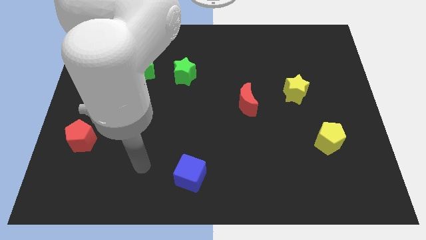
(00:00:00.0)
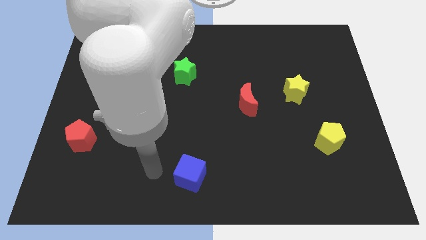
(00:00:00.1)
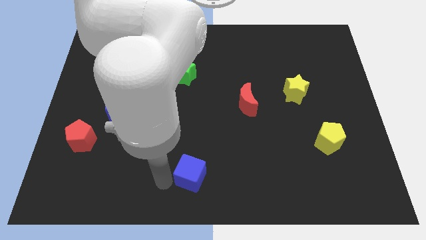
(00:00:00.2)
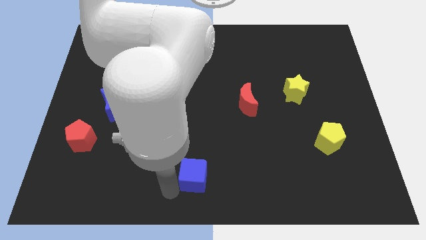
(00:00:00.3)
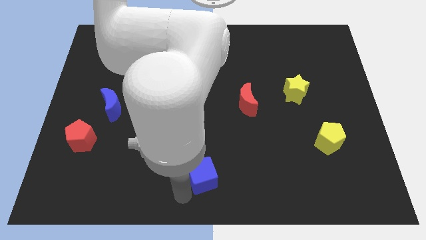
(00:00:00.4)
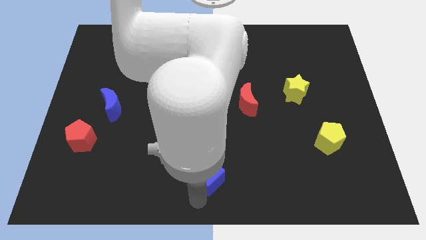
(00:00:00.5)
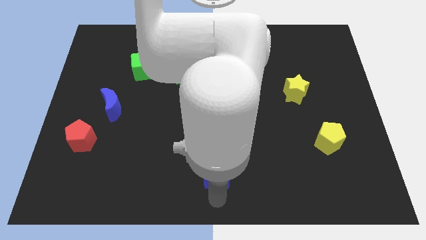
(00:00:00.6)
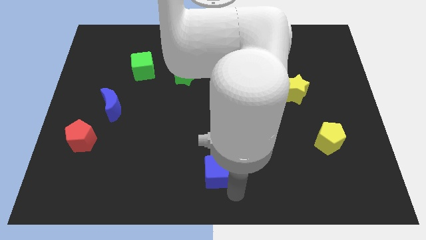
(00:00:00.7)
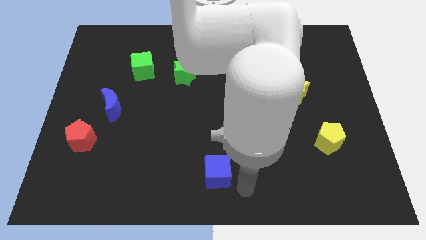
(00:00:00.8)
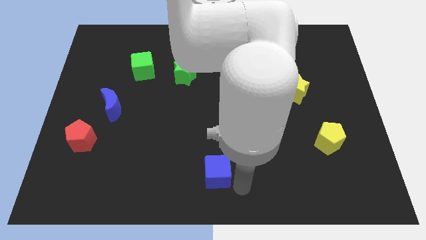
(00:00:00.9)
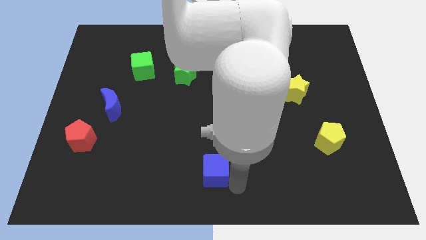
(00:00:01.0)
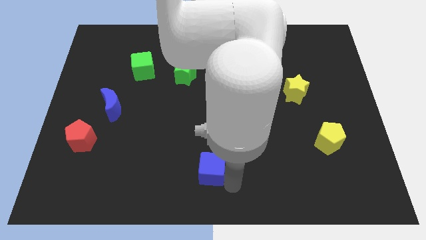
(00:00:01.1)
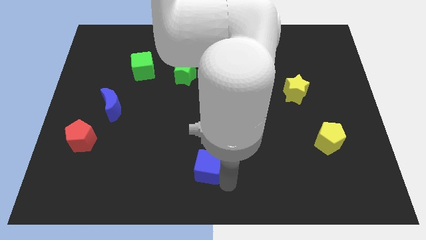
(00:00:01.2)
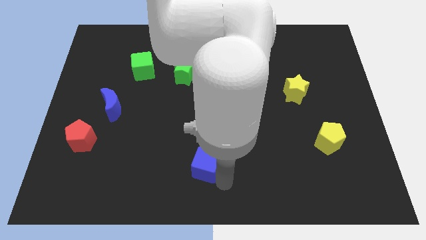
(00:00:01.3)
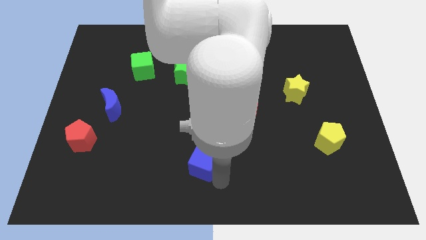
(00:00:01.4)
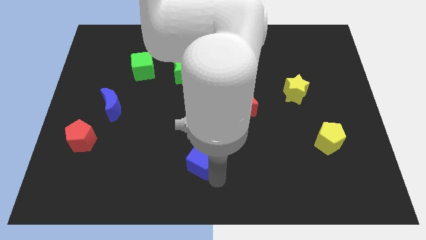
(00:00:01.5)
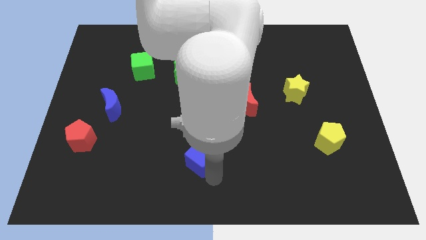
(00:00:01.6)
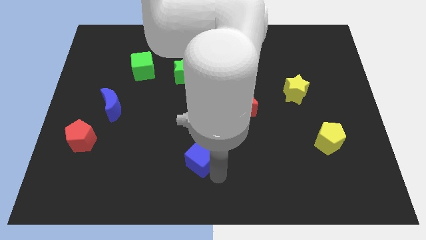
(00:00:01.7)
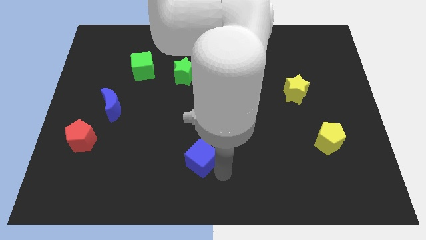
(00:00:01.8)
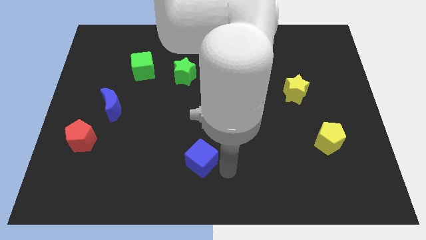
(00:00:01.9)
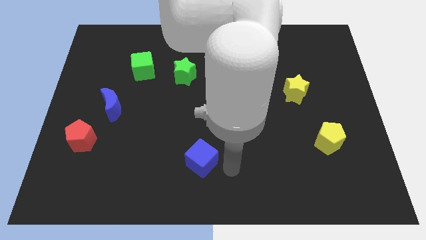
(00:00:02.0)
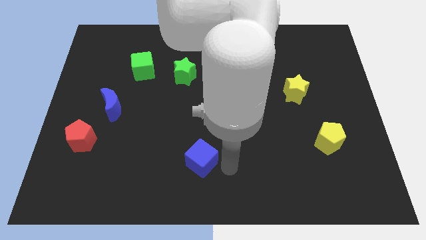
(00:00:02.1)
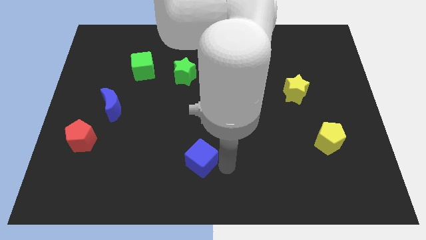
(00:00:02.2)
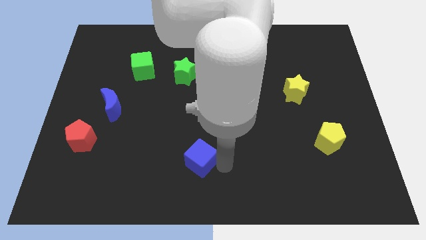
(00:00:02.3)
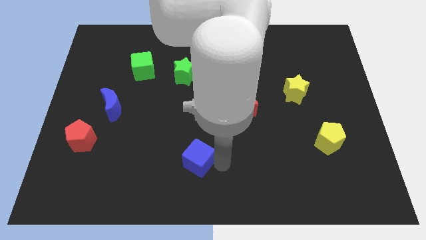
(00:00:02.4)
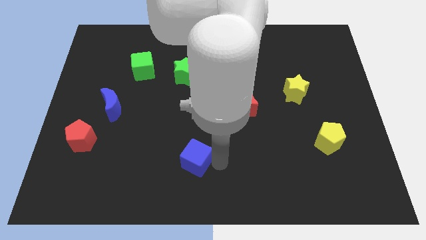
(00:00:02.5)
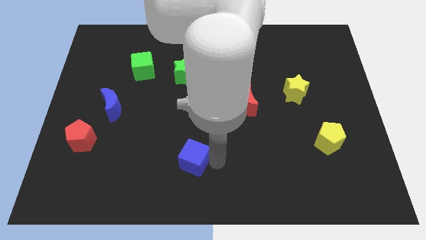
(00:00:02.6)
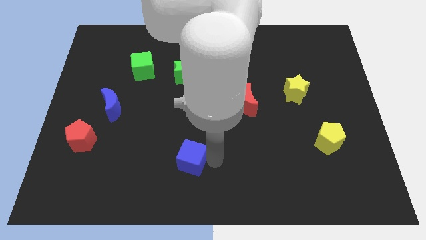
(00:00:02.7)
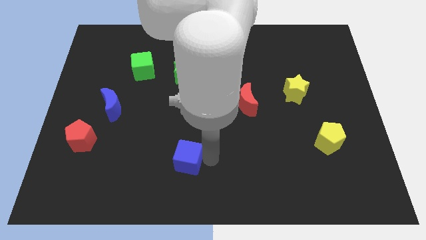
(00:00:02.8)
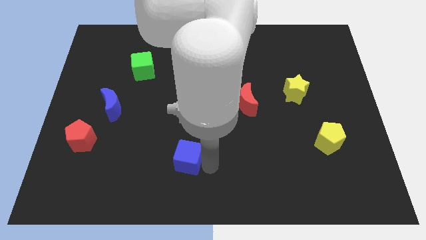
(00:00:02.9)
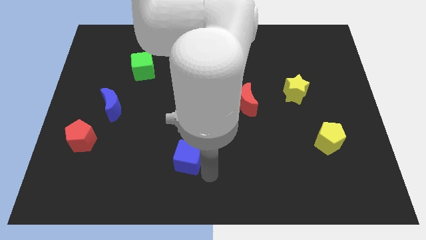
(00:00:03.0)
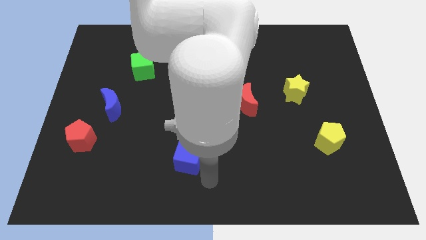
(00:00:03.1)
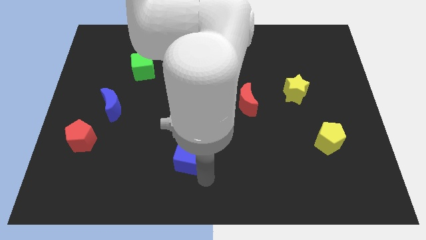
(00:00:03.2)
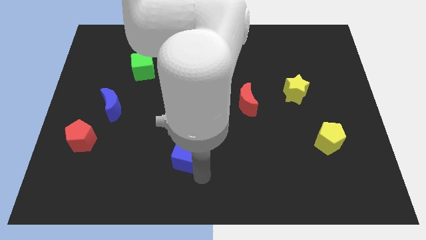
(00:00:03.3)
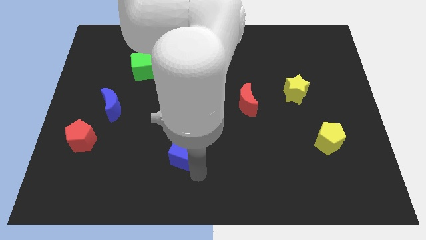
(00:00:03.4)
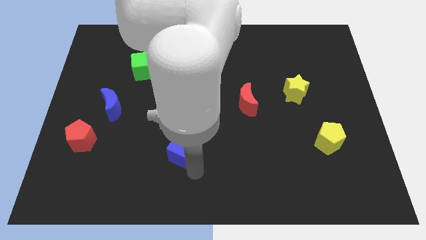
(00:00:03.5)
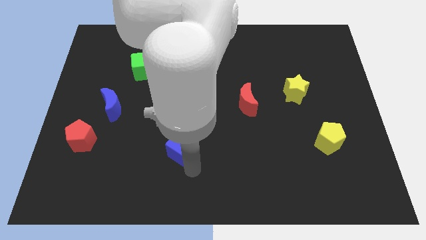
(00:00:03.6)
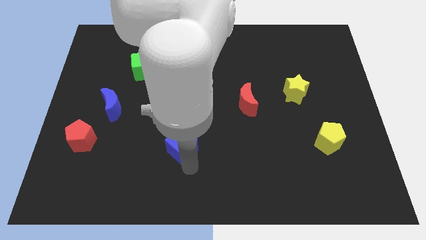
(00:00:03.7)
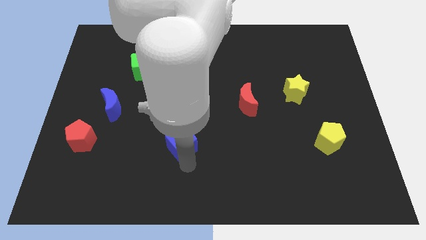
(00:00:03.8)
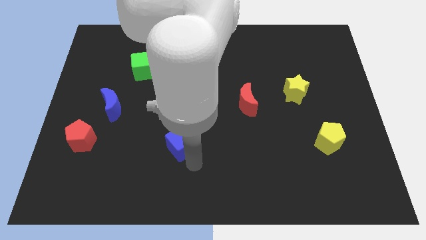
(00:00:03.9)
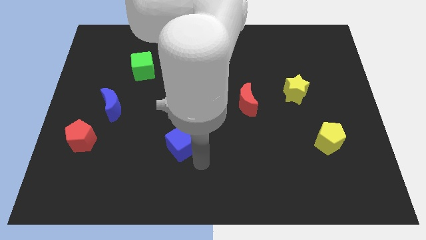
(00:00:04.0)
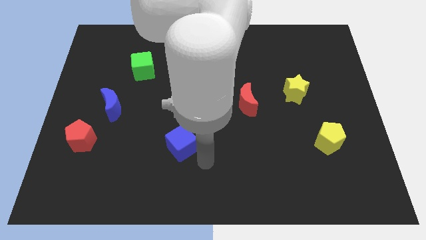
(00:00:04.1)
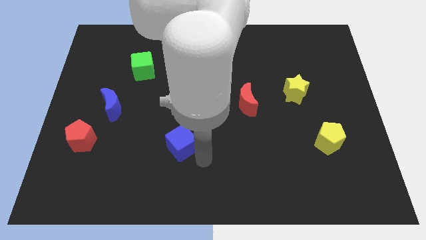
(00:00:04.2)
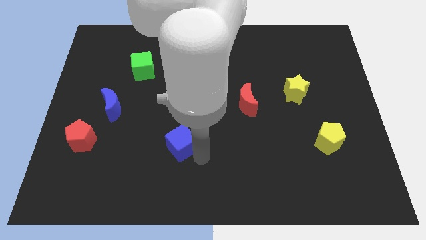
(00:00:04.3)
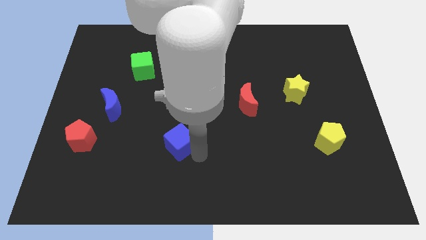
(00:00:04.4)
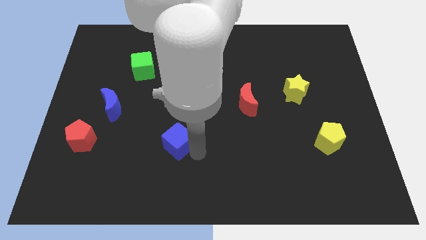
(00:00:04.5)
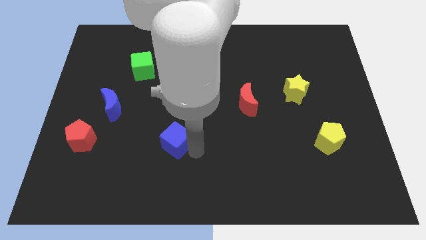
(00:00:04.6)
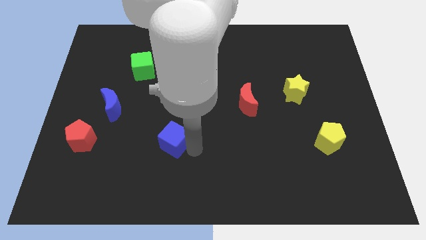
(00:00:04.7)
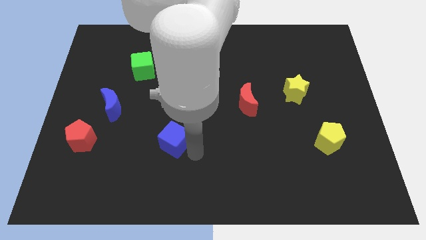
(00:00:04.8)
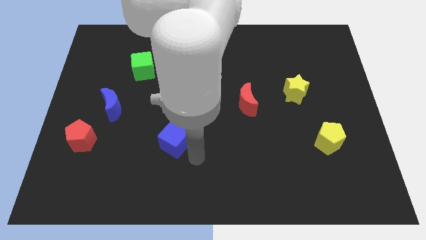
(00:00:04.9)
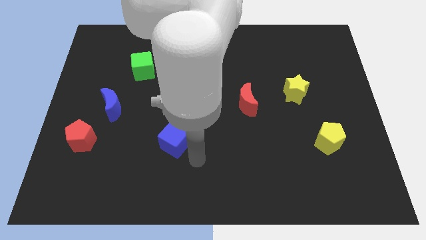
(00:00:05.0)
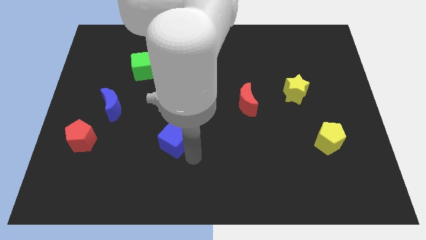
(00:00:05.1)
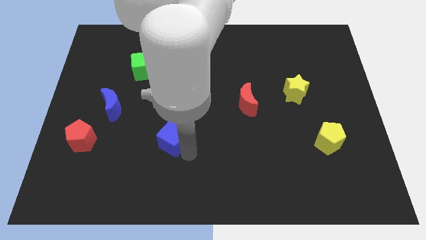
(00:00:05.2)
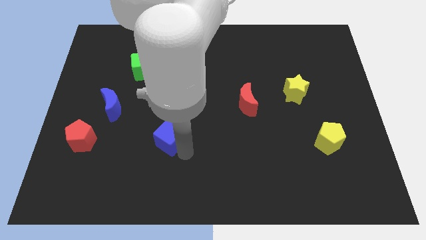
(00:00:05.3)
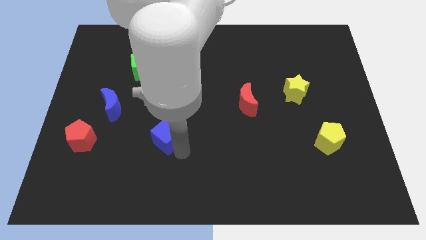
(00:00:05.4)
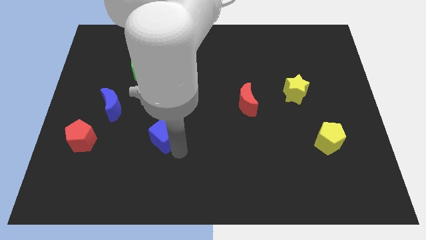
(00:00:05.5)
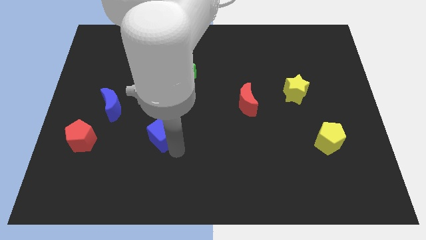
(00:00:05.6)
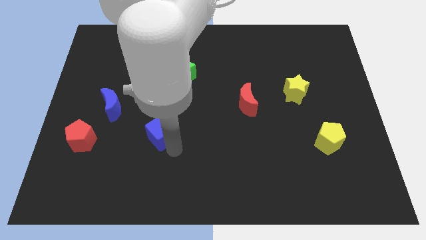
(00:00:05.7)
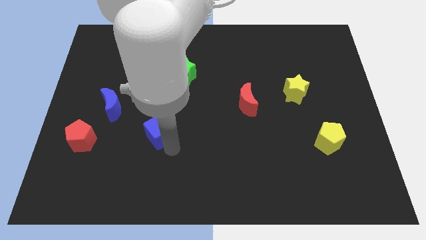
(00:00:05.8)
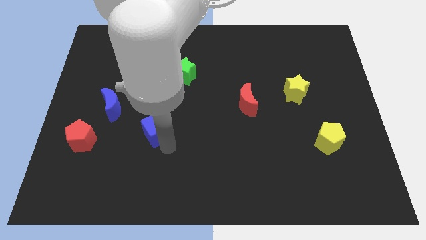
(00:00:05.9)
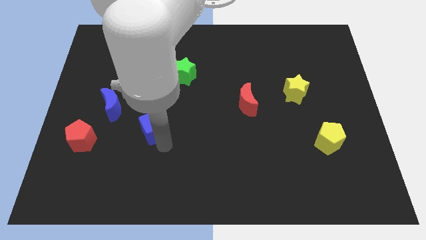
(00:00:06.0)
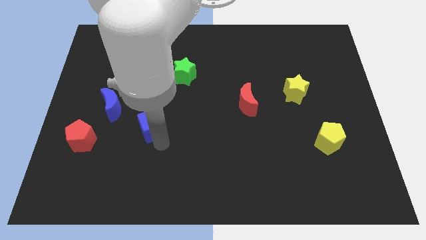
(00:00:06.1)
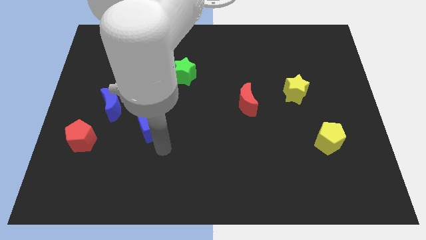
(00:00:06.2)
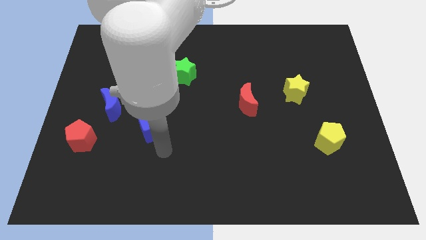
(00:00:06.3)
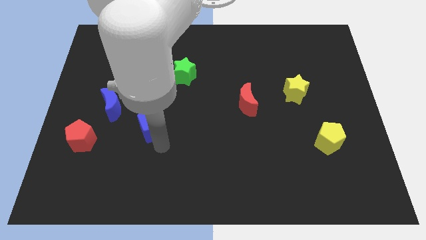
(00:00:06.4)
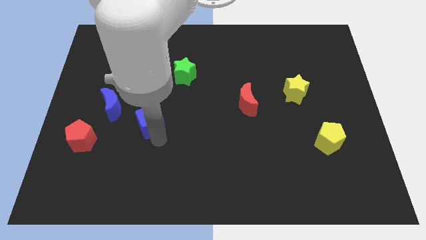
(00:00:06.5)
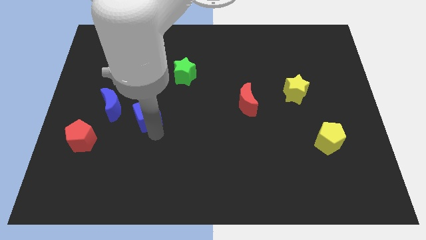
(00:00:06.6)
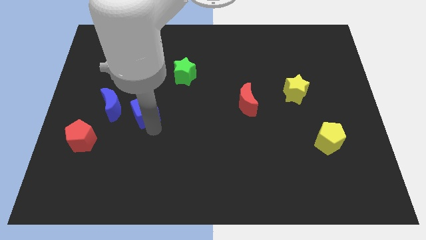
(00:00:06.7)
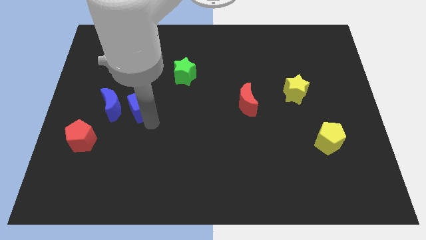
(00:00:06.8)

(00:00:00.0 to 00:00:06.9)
move the blue cube upwards and to the left diagonally

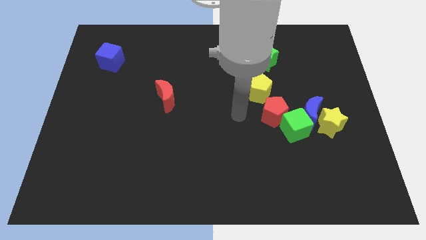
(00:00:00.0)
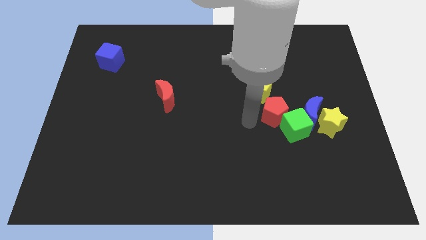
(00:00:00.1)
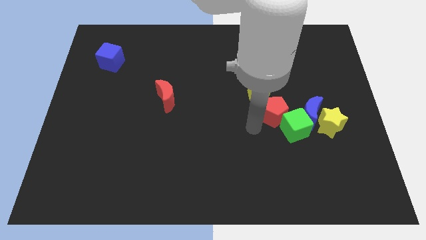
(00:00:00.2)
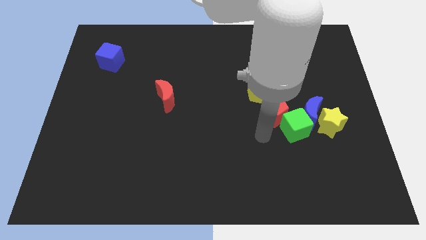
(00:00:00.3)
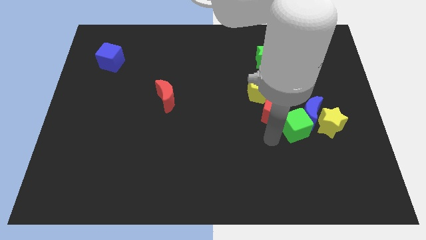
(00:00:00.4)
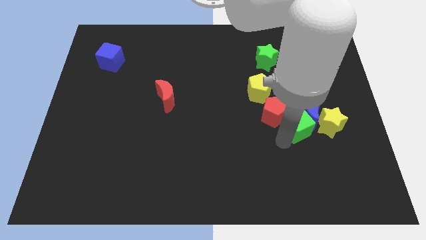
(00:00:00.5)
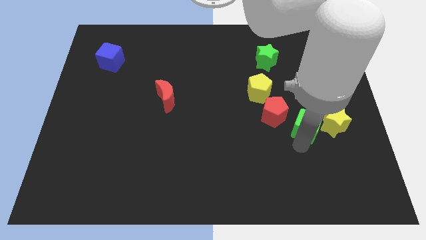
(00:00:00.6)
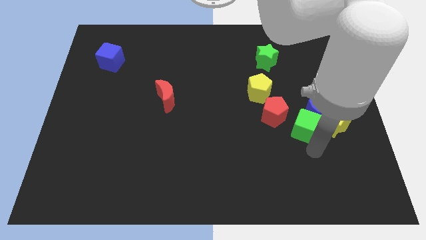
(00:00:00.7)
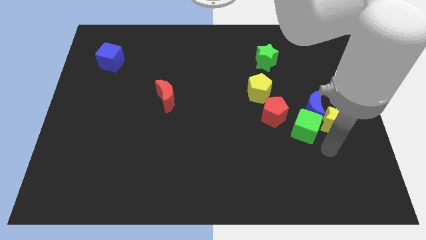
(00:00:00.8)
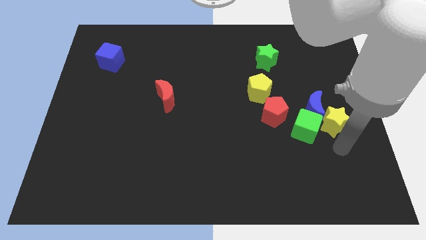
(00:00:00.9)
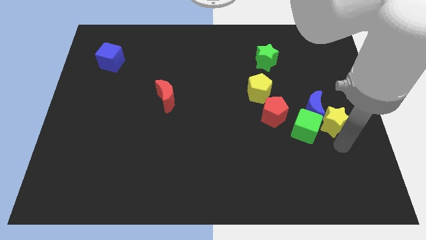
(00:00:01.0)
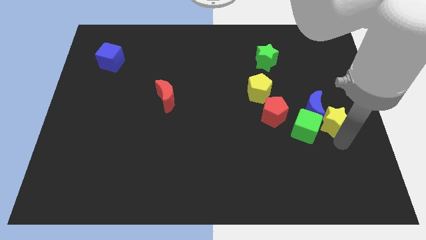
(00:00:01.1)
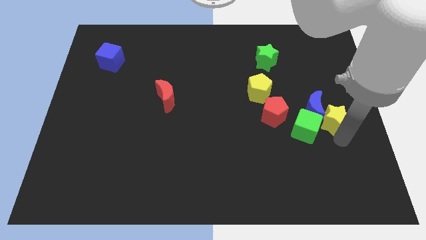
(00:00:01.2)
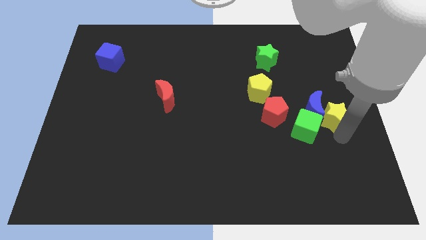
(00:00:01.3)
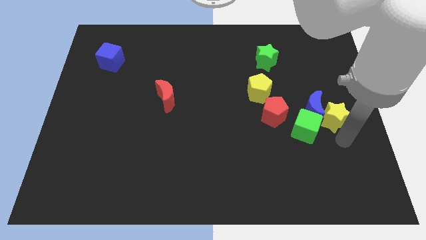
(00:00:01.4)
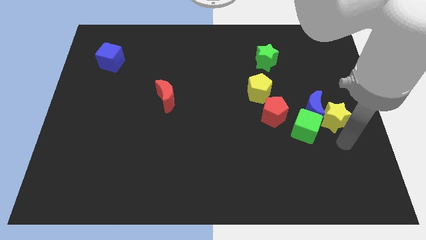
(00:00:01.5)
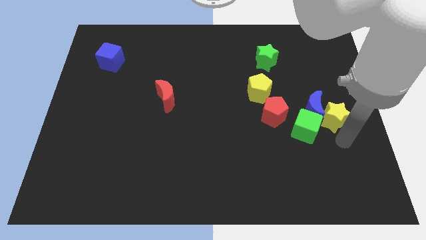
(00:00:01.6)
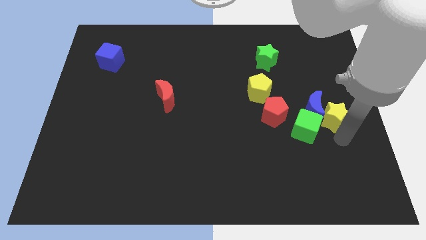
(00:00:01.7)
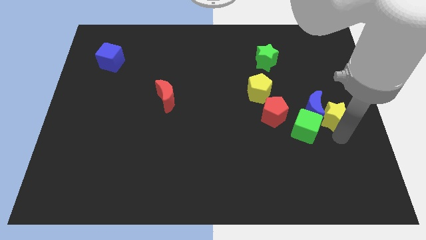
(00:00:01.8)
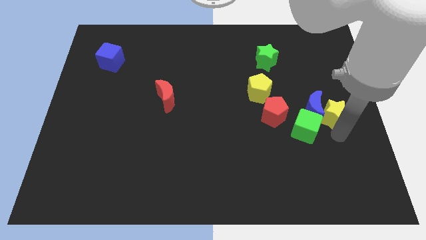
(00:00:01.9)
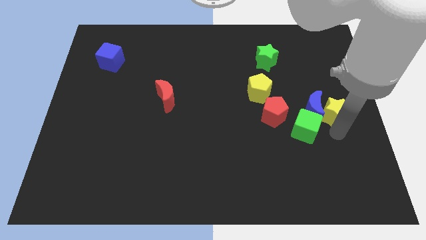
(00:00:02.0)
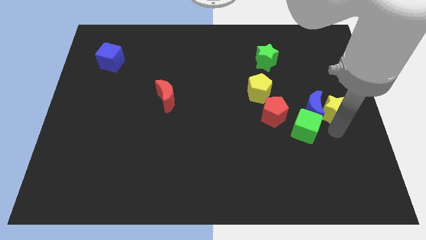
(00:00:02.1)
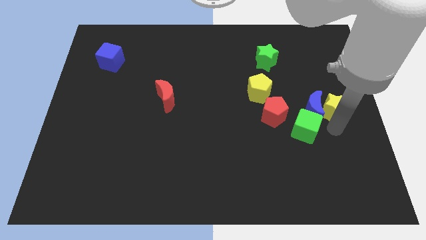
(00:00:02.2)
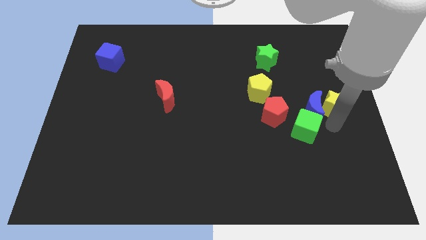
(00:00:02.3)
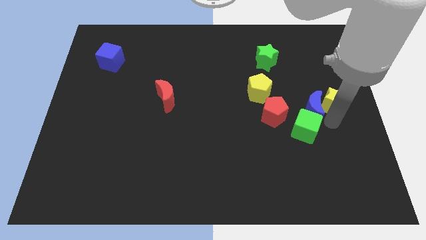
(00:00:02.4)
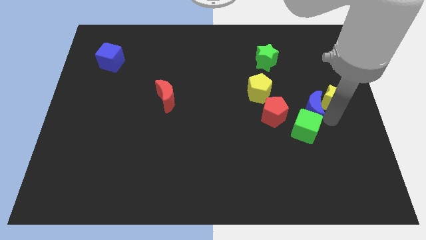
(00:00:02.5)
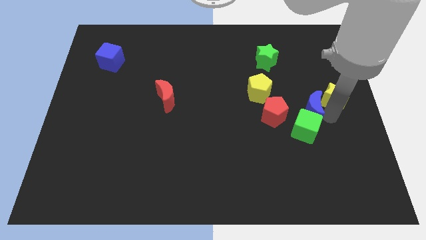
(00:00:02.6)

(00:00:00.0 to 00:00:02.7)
slide the yellow star upwards a little bit
